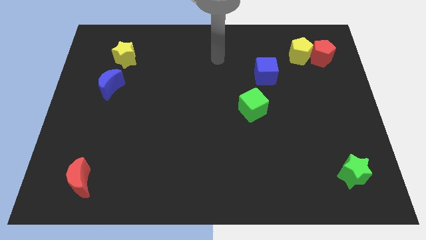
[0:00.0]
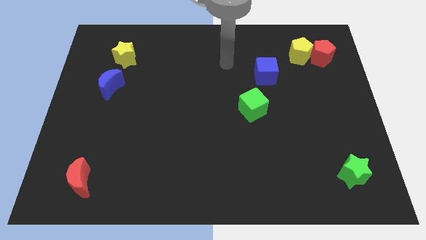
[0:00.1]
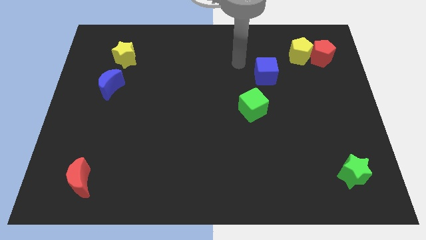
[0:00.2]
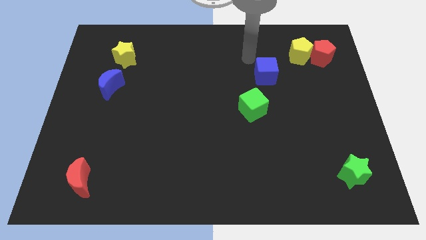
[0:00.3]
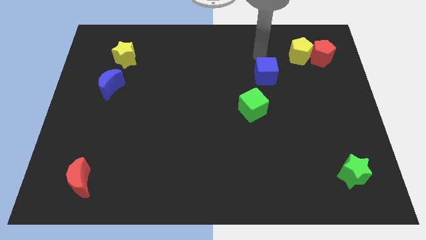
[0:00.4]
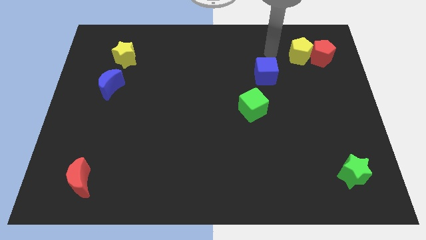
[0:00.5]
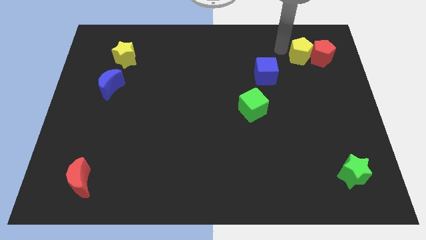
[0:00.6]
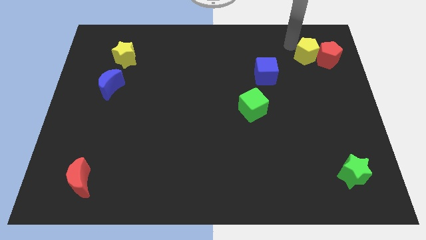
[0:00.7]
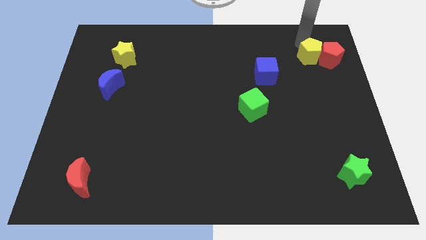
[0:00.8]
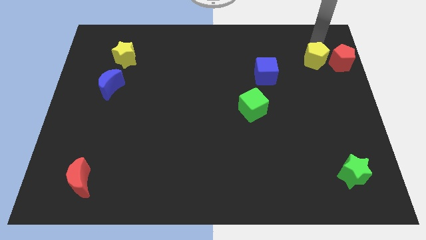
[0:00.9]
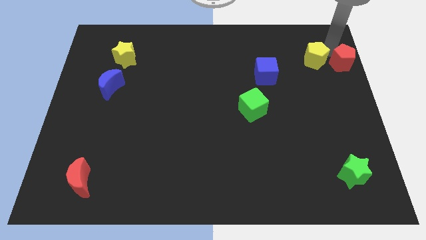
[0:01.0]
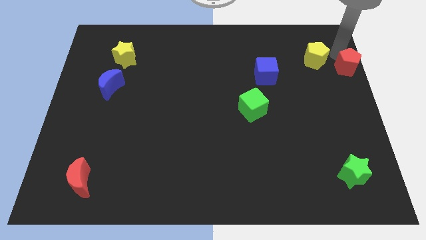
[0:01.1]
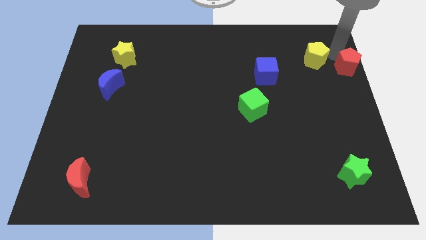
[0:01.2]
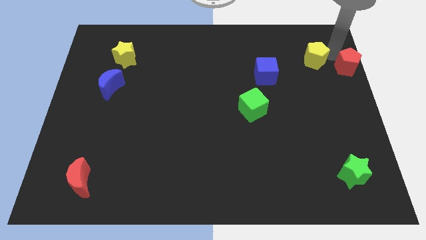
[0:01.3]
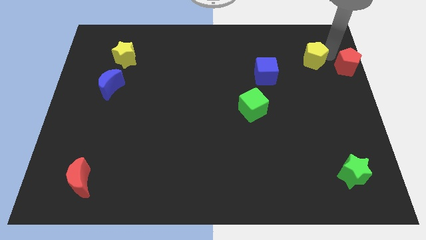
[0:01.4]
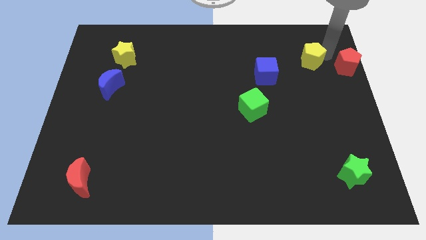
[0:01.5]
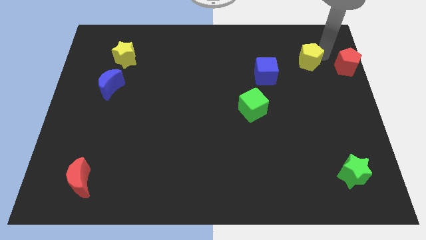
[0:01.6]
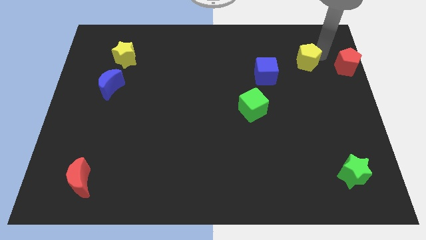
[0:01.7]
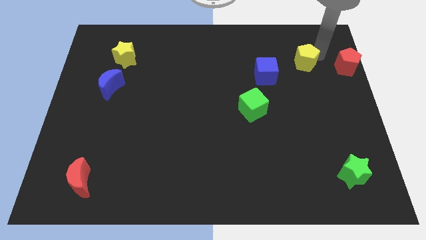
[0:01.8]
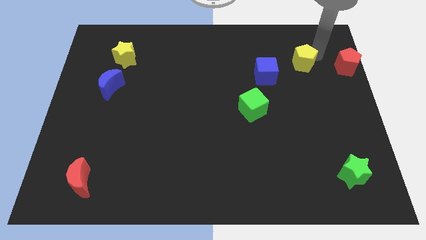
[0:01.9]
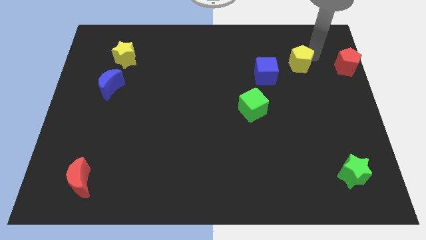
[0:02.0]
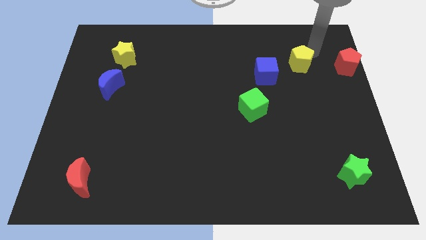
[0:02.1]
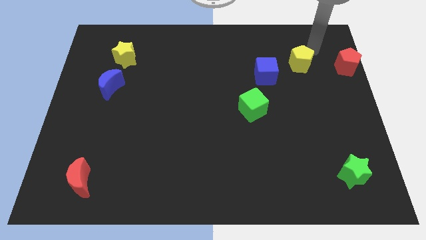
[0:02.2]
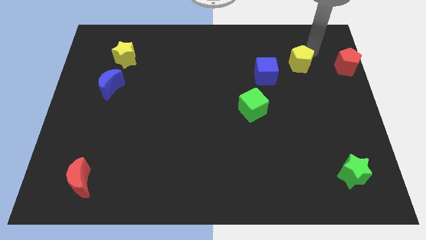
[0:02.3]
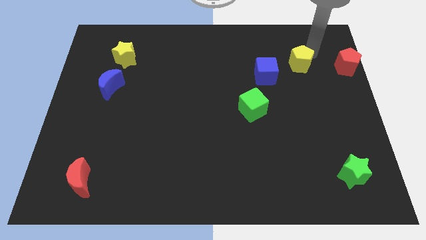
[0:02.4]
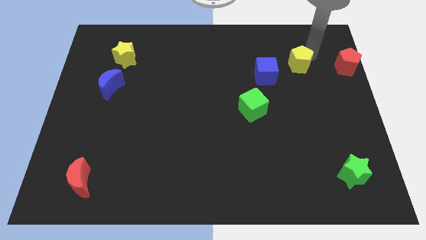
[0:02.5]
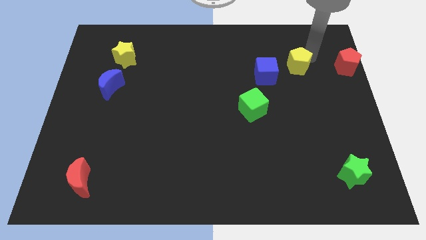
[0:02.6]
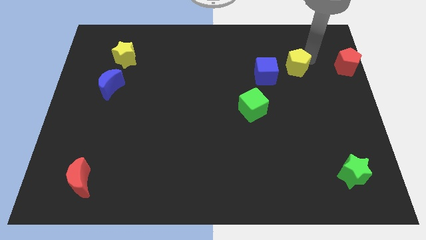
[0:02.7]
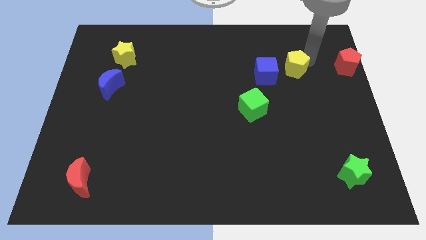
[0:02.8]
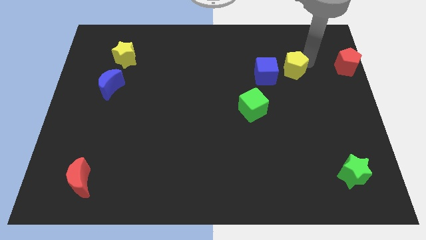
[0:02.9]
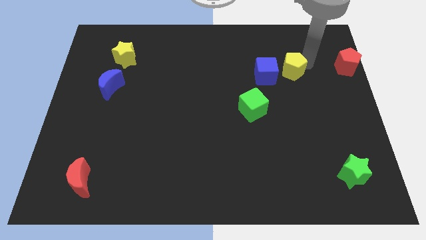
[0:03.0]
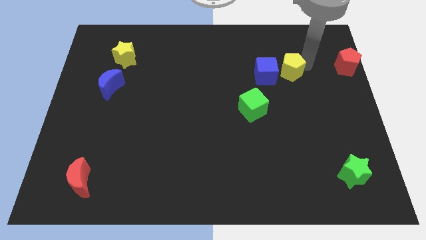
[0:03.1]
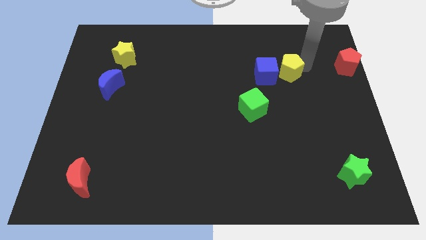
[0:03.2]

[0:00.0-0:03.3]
slide the yellow pentagon down and then to the left somewhat

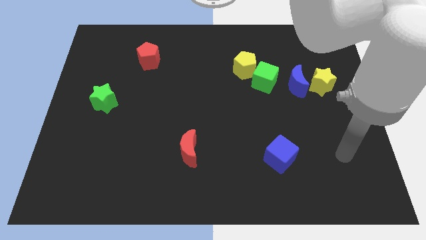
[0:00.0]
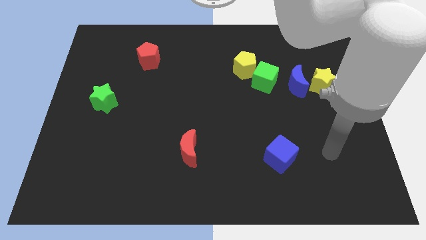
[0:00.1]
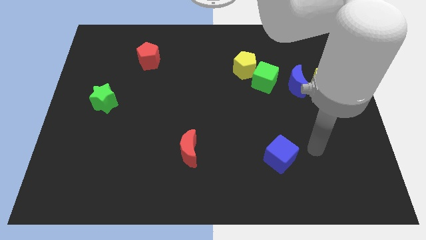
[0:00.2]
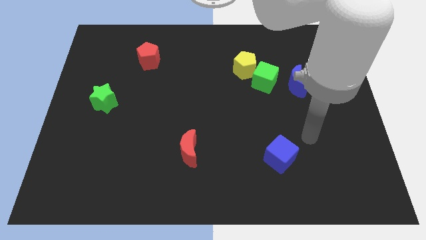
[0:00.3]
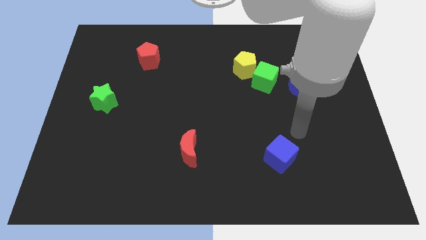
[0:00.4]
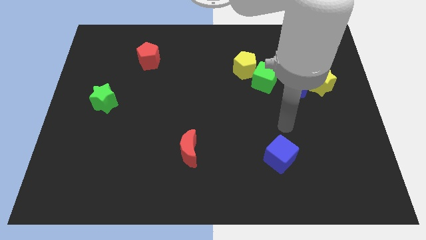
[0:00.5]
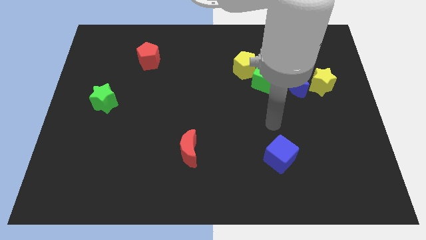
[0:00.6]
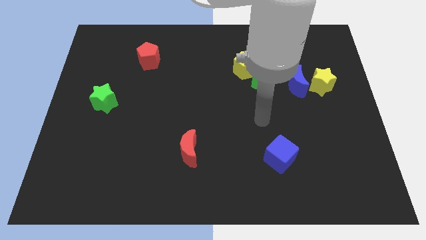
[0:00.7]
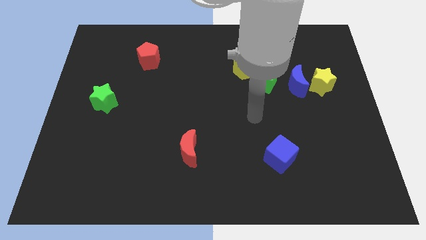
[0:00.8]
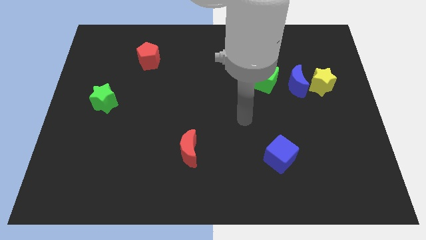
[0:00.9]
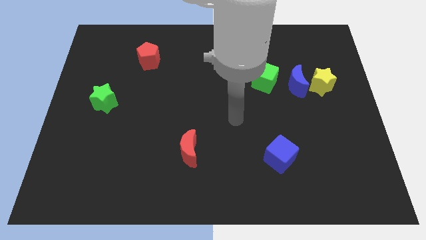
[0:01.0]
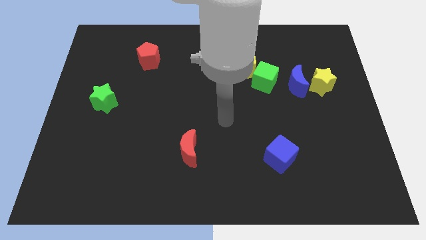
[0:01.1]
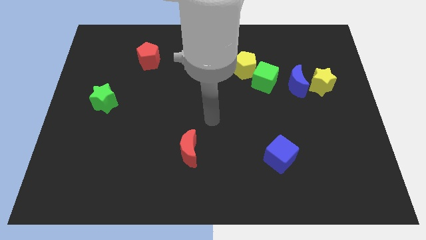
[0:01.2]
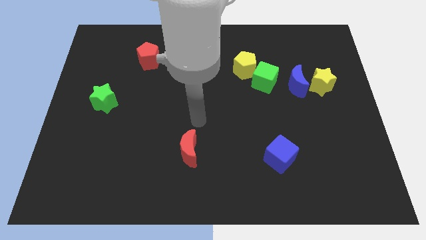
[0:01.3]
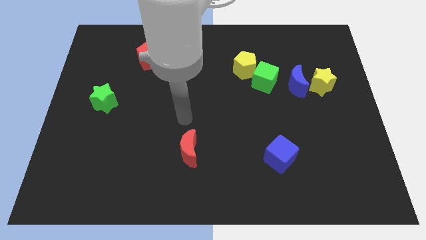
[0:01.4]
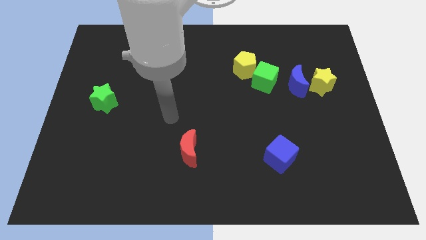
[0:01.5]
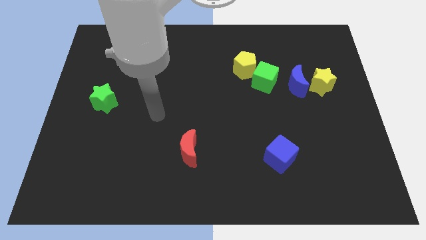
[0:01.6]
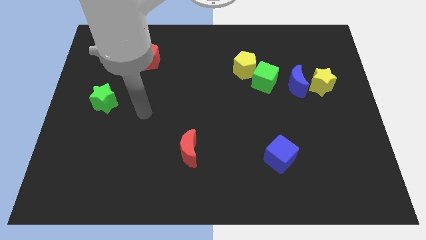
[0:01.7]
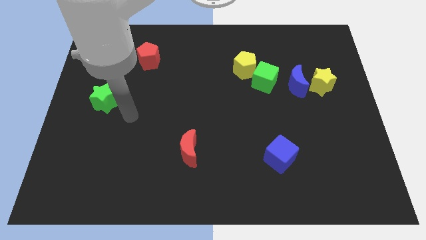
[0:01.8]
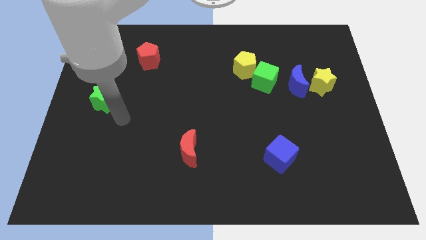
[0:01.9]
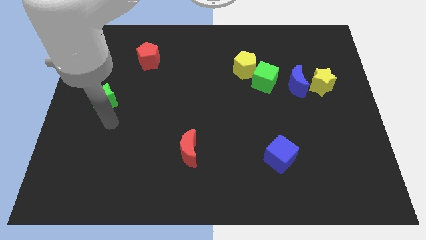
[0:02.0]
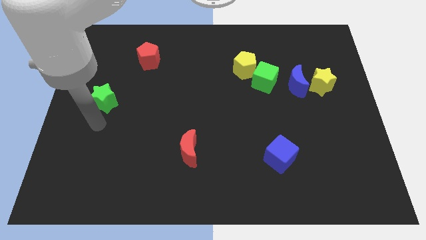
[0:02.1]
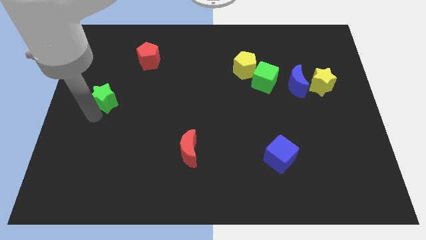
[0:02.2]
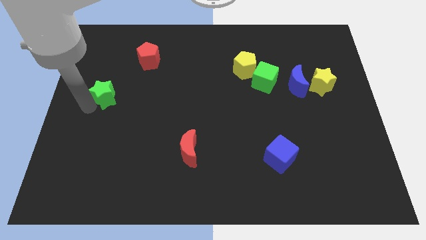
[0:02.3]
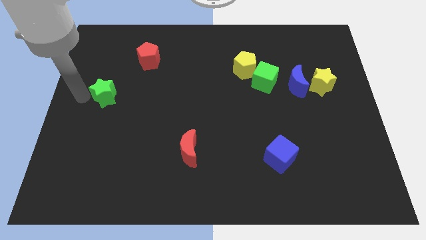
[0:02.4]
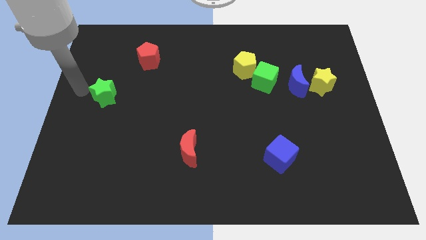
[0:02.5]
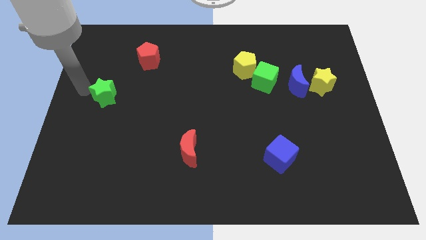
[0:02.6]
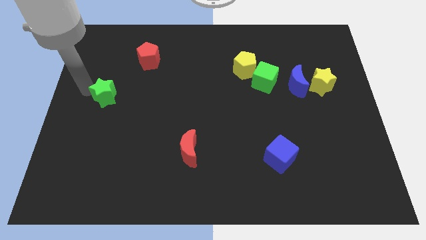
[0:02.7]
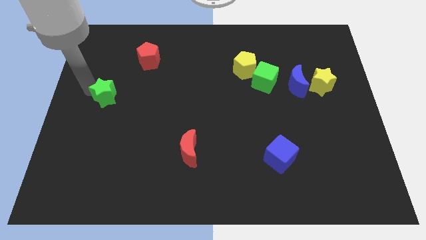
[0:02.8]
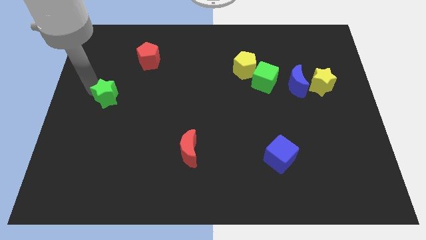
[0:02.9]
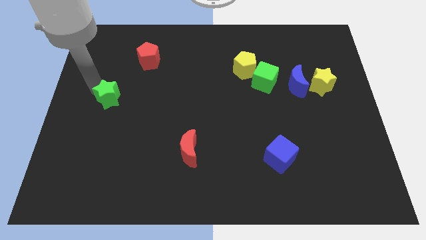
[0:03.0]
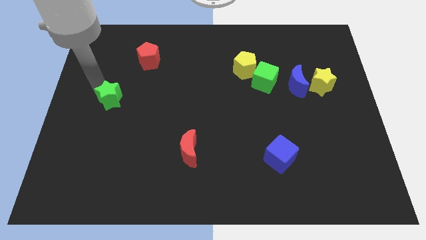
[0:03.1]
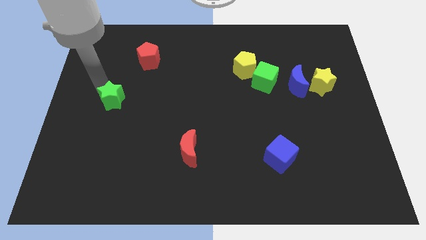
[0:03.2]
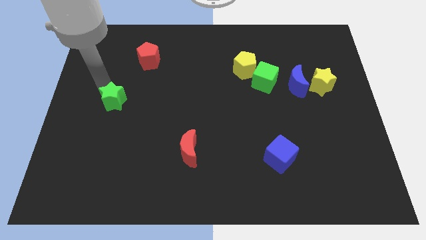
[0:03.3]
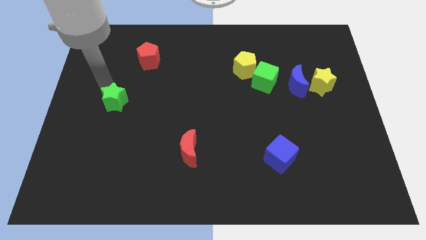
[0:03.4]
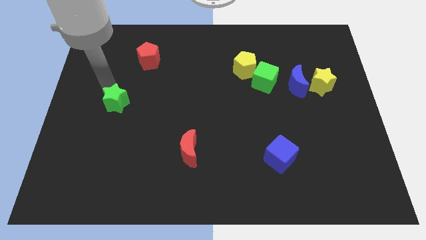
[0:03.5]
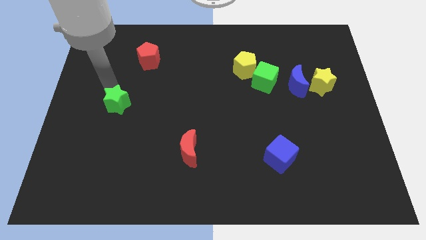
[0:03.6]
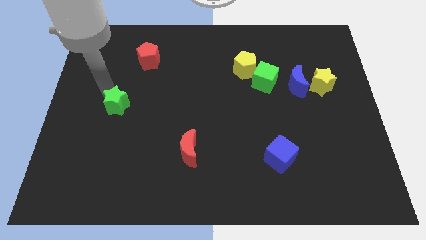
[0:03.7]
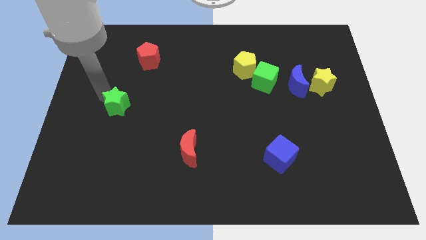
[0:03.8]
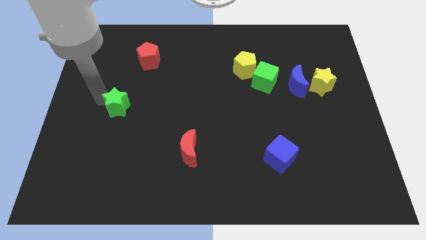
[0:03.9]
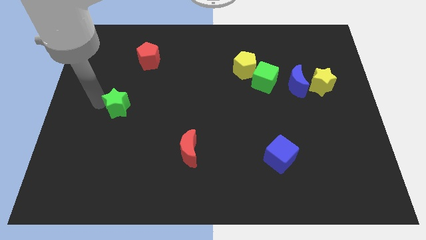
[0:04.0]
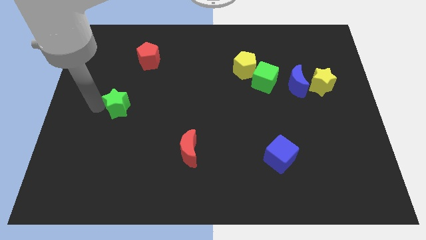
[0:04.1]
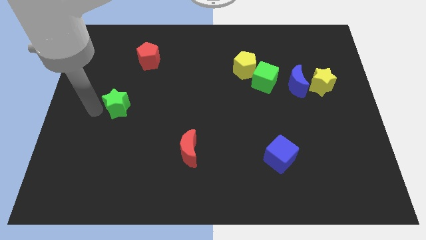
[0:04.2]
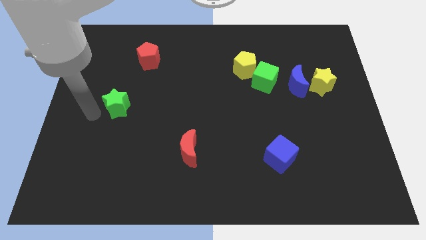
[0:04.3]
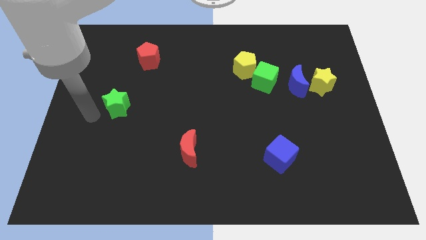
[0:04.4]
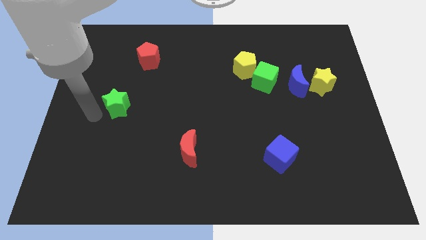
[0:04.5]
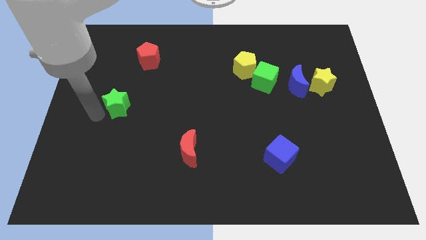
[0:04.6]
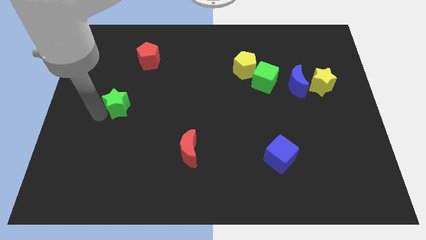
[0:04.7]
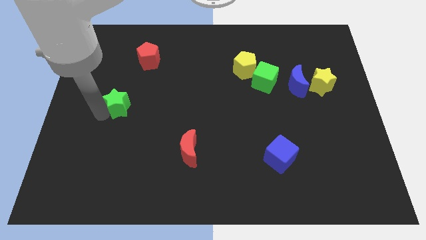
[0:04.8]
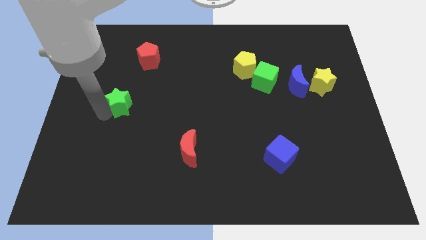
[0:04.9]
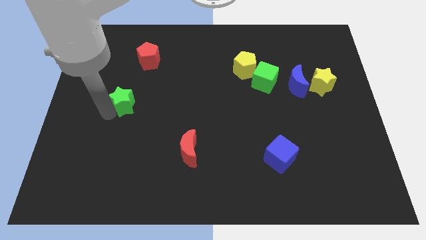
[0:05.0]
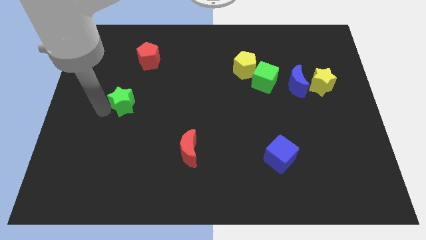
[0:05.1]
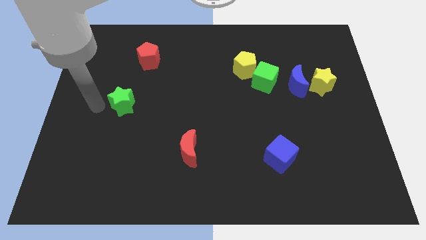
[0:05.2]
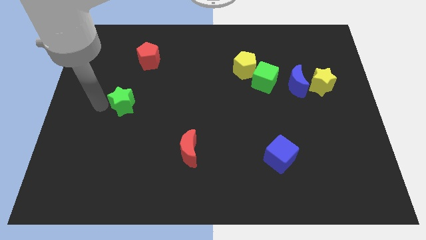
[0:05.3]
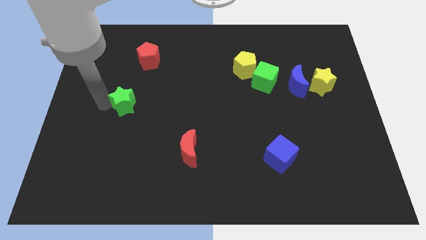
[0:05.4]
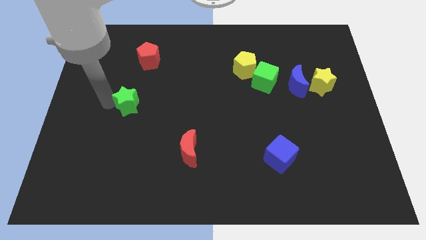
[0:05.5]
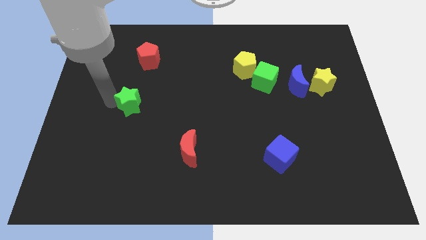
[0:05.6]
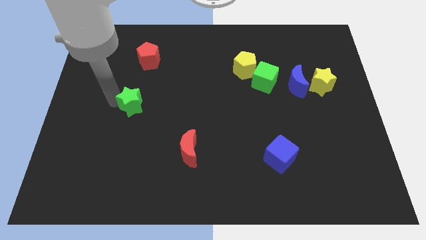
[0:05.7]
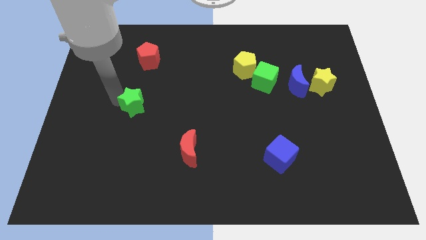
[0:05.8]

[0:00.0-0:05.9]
move the green star to the right a little
